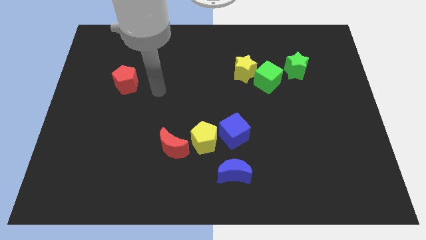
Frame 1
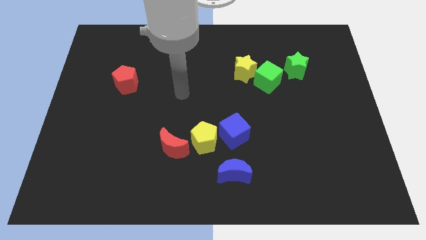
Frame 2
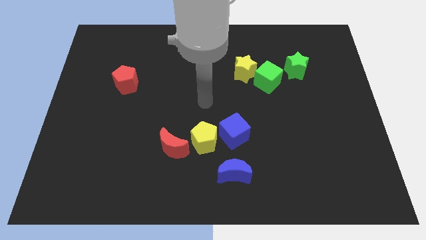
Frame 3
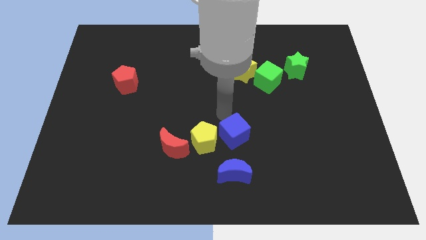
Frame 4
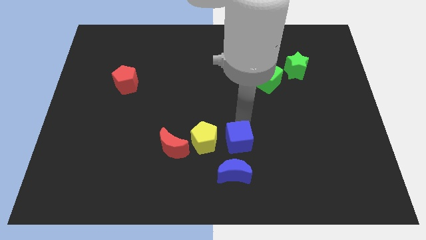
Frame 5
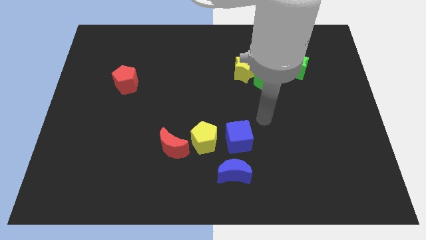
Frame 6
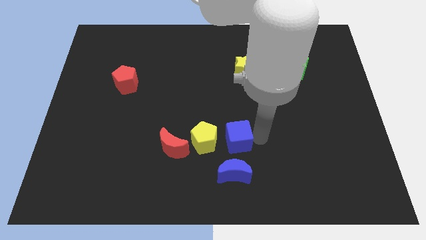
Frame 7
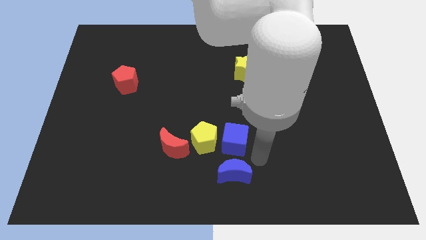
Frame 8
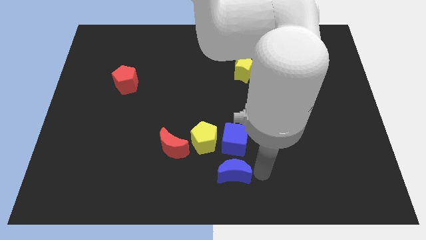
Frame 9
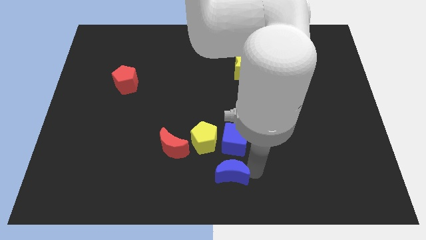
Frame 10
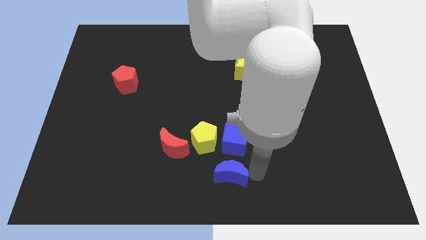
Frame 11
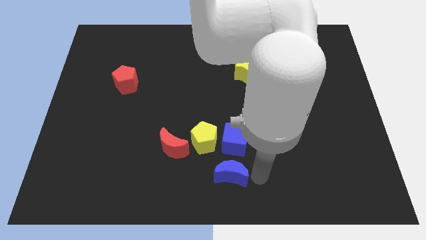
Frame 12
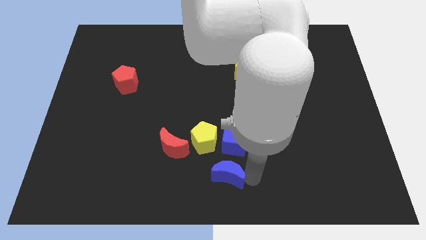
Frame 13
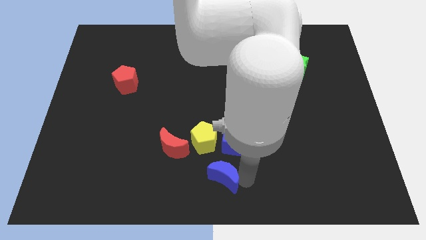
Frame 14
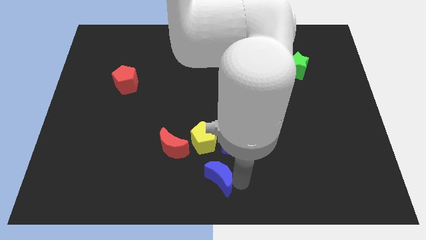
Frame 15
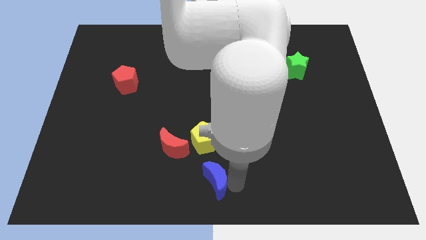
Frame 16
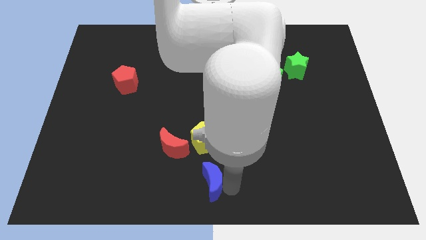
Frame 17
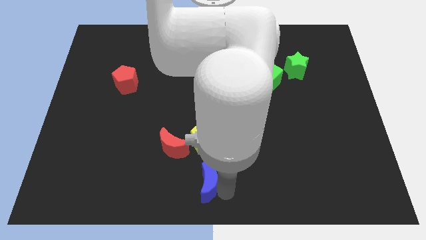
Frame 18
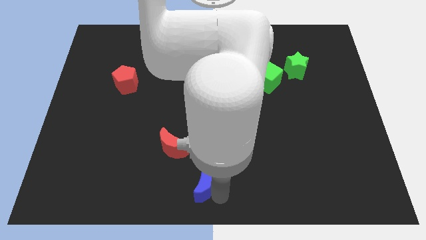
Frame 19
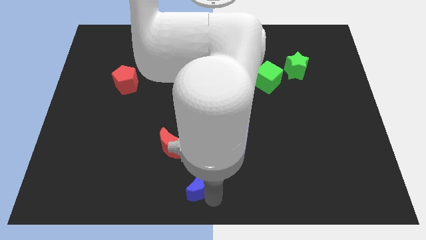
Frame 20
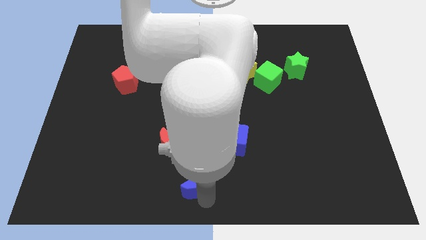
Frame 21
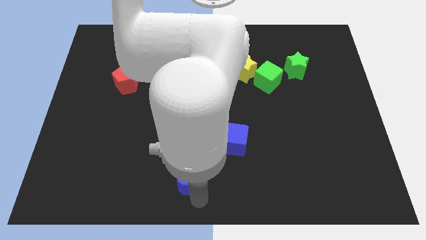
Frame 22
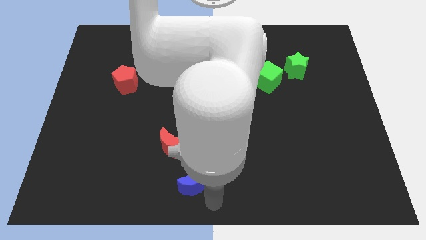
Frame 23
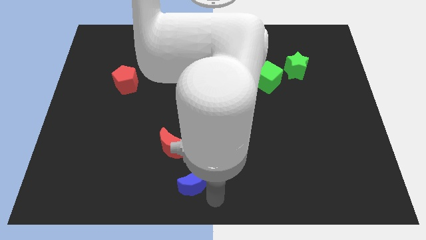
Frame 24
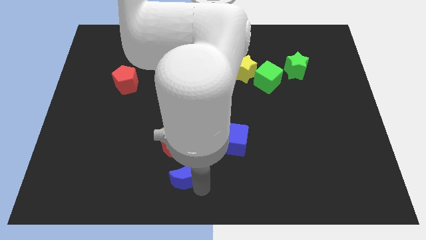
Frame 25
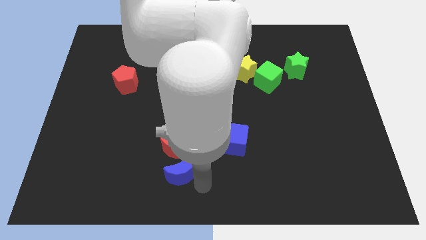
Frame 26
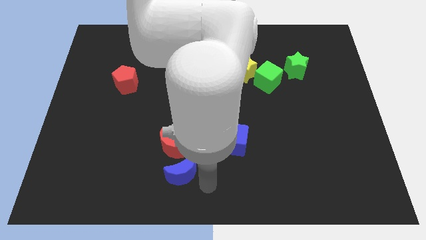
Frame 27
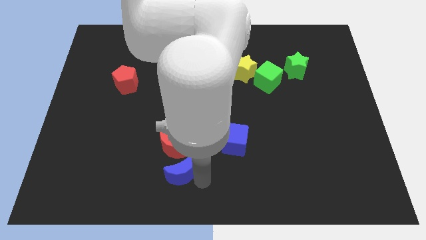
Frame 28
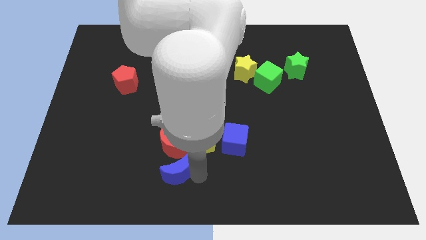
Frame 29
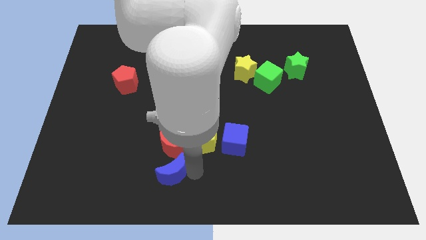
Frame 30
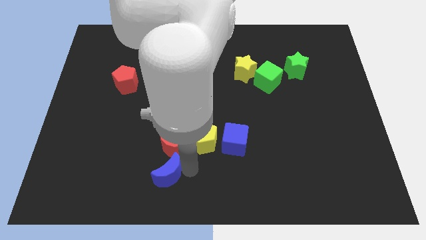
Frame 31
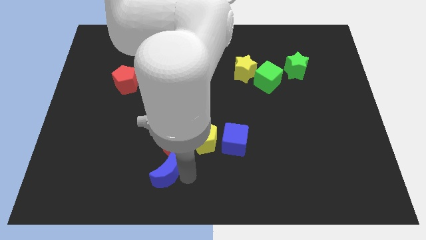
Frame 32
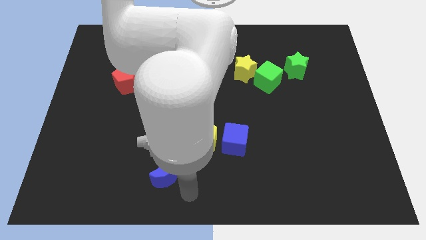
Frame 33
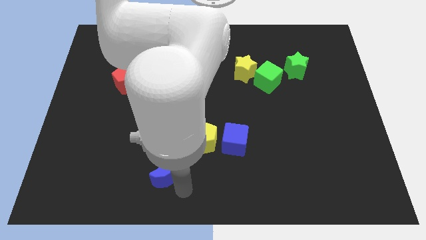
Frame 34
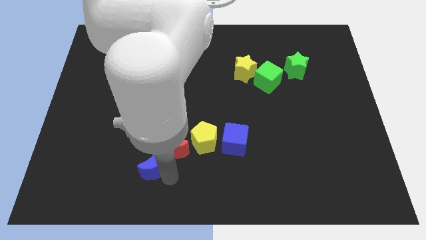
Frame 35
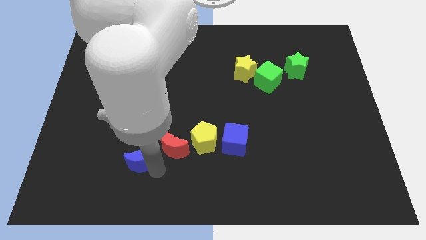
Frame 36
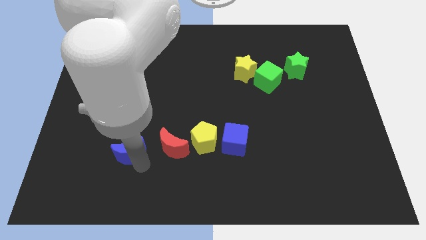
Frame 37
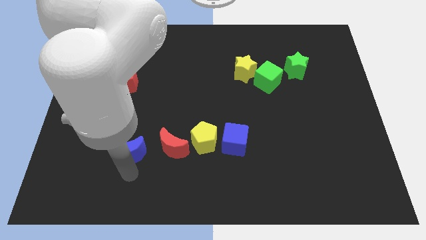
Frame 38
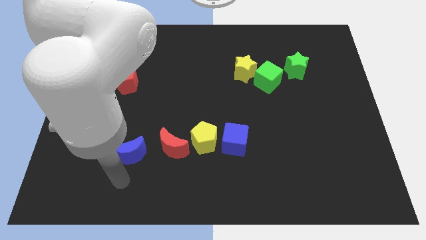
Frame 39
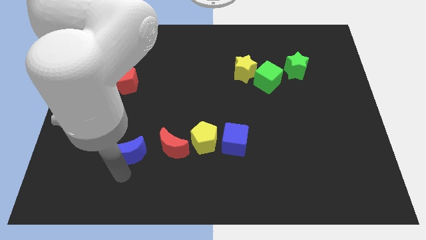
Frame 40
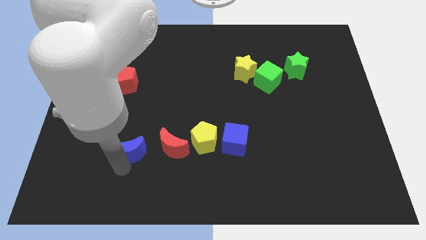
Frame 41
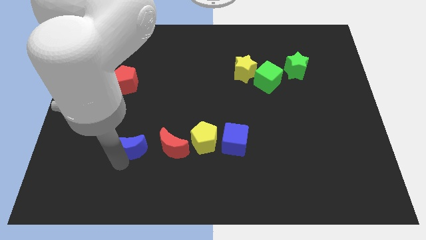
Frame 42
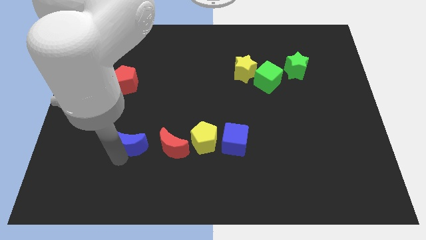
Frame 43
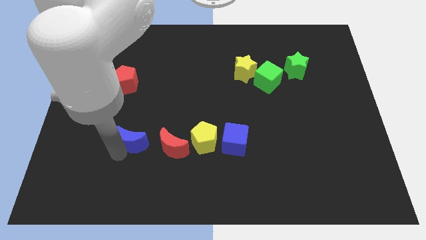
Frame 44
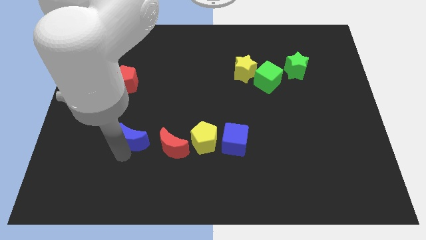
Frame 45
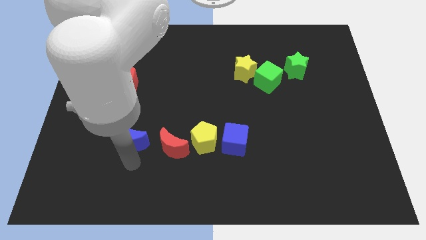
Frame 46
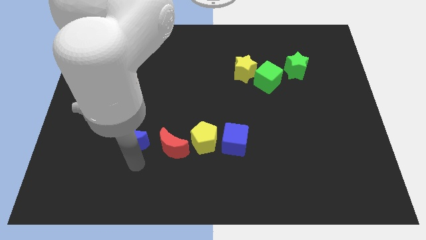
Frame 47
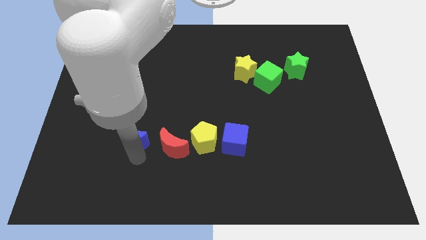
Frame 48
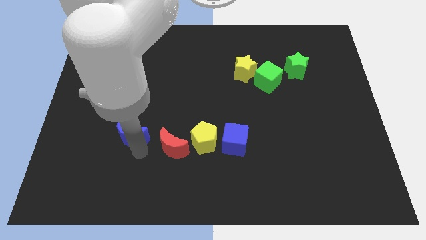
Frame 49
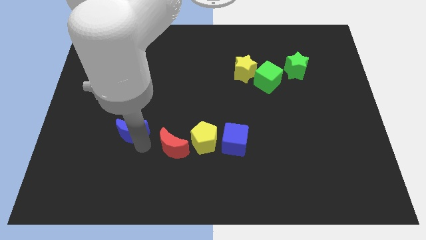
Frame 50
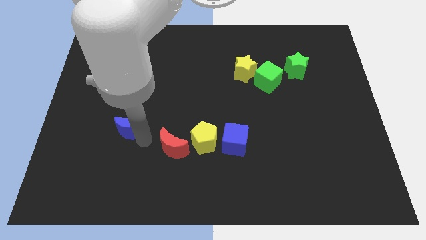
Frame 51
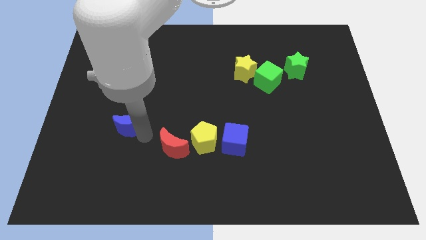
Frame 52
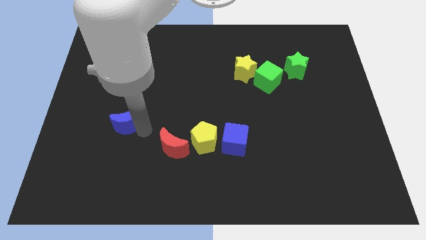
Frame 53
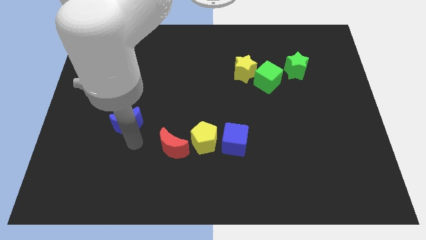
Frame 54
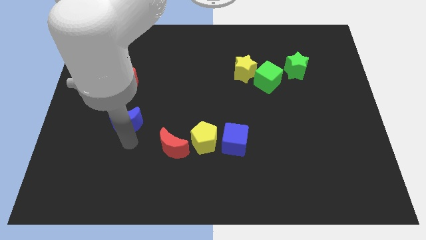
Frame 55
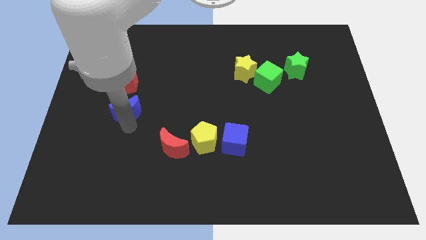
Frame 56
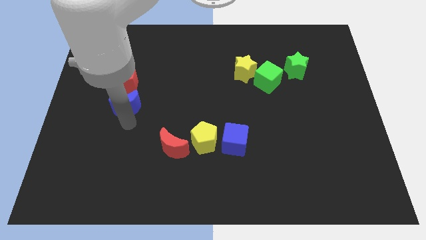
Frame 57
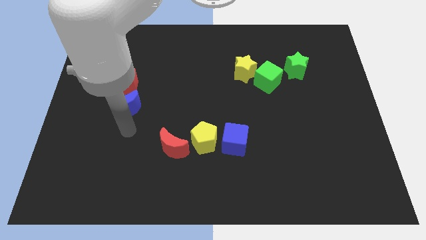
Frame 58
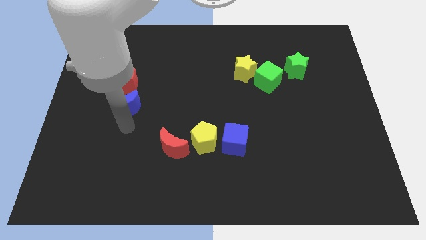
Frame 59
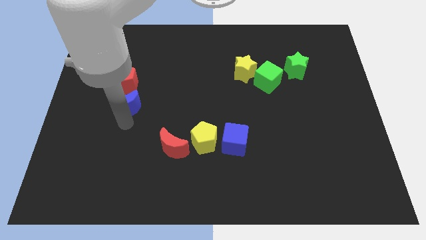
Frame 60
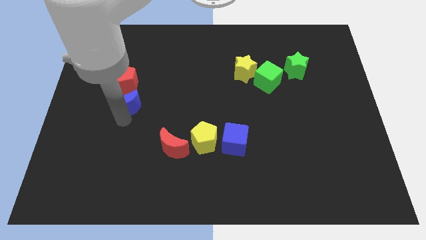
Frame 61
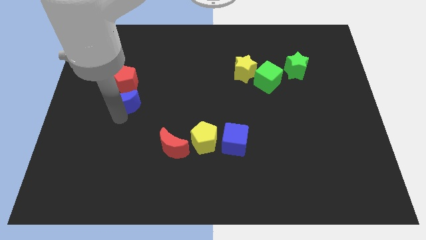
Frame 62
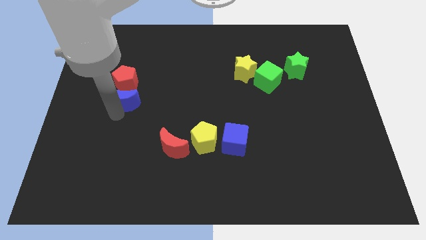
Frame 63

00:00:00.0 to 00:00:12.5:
push the blue moon next to the red pentagon

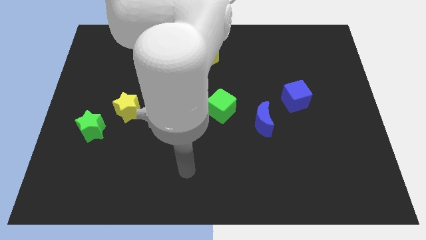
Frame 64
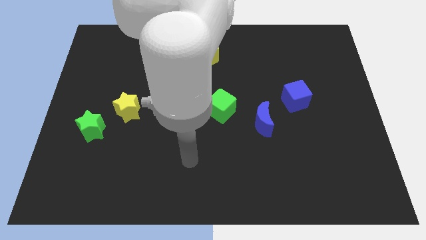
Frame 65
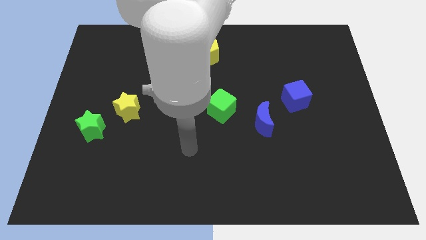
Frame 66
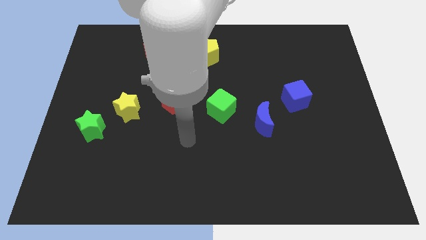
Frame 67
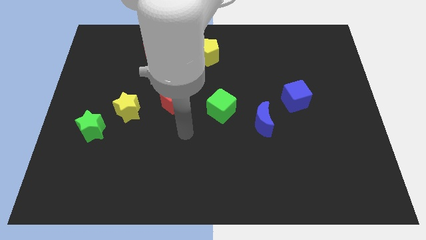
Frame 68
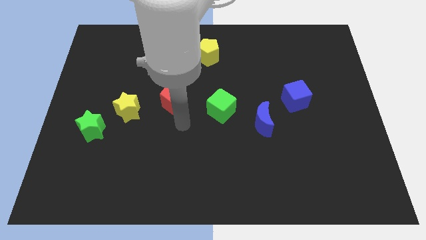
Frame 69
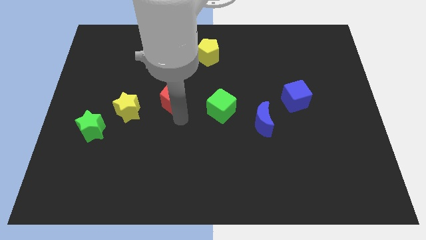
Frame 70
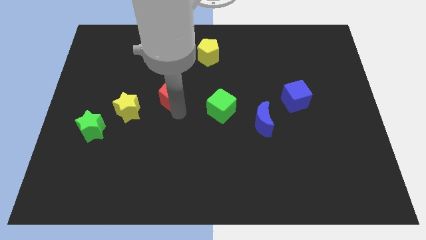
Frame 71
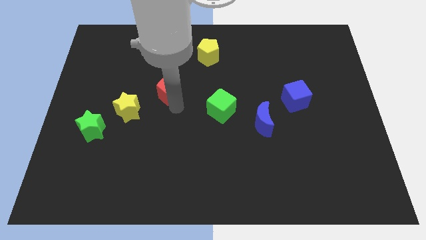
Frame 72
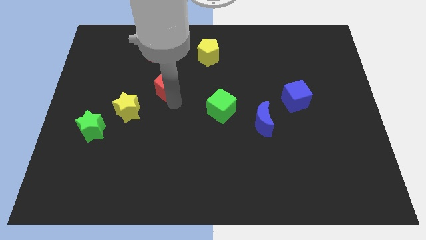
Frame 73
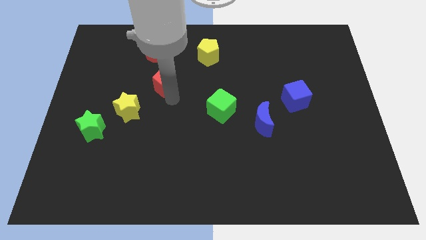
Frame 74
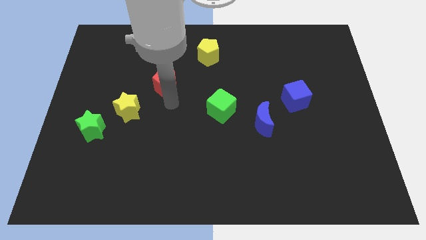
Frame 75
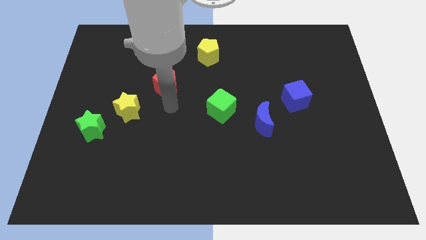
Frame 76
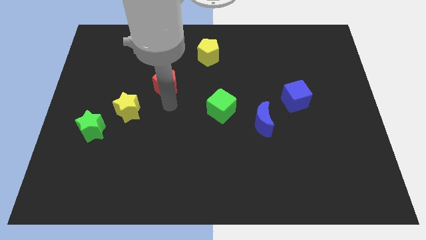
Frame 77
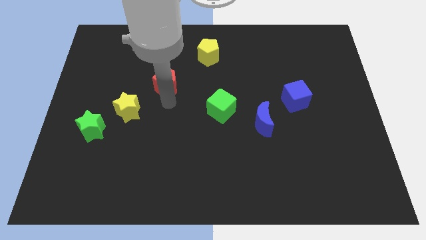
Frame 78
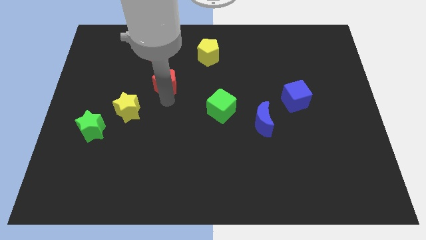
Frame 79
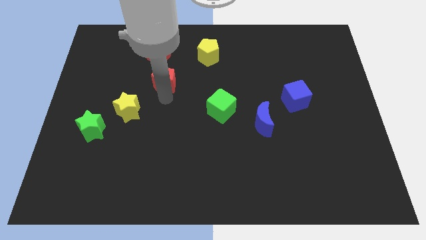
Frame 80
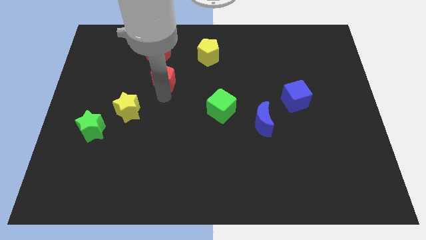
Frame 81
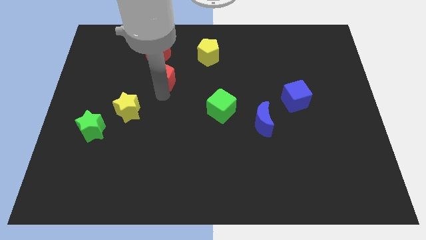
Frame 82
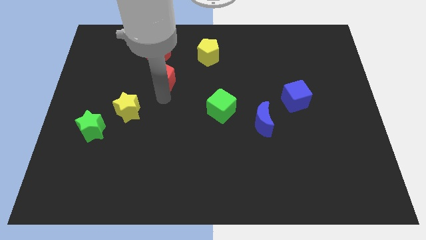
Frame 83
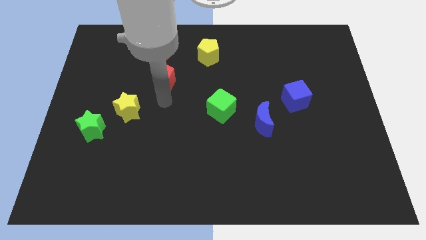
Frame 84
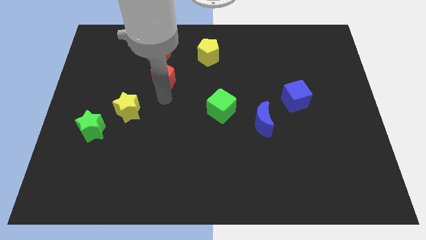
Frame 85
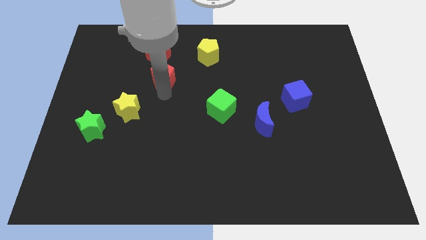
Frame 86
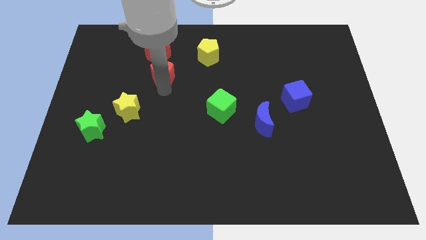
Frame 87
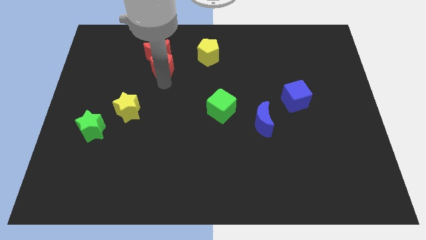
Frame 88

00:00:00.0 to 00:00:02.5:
move the red pentagon close to the red moon
